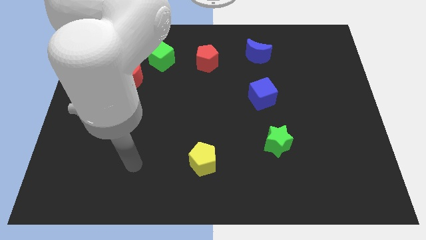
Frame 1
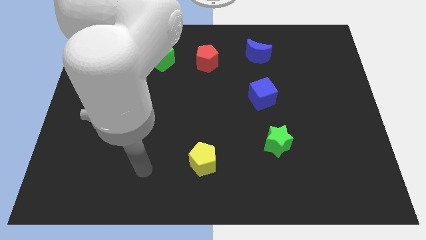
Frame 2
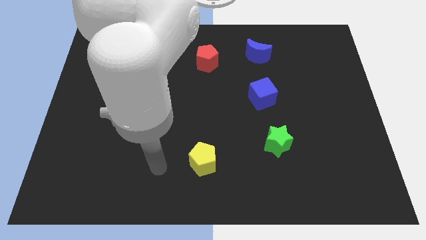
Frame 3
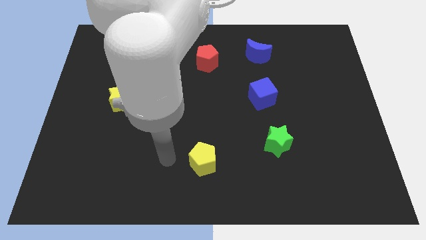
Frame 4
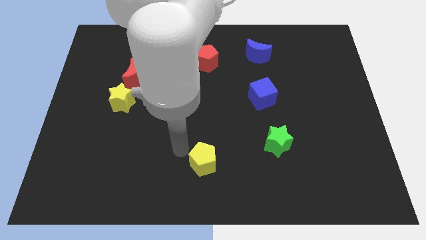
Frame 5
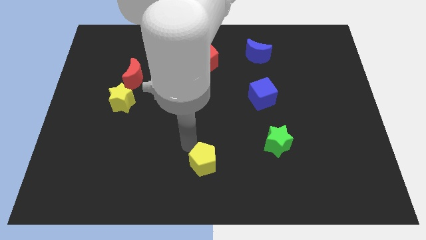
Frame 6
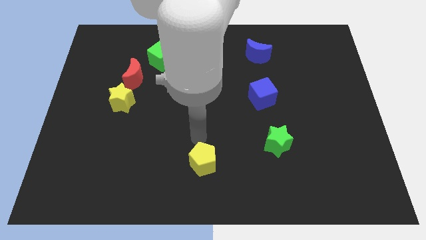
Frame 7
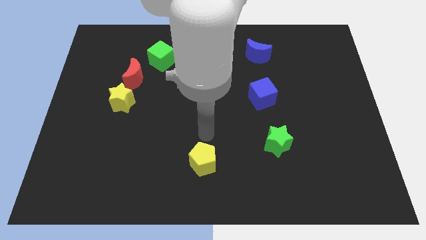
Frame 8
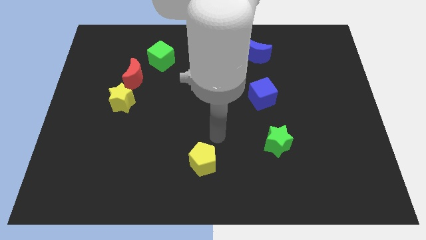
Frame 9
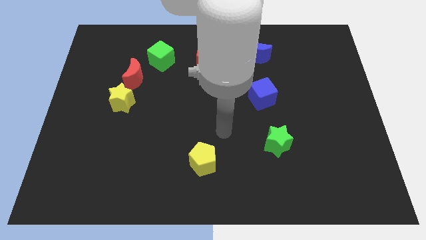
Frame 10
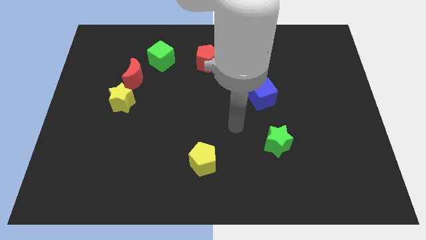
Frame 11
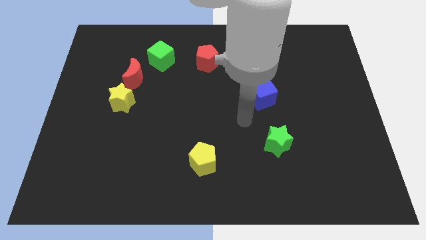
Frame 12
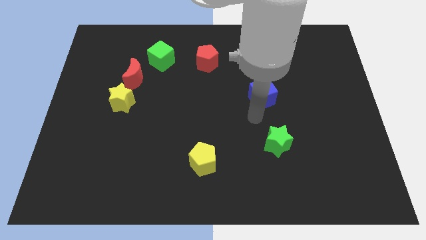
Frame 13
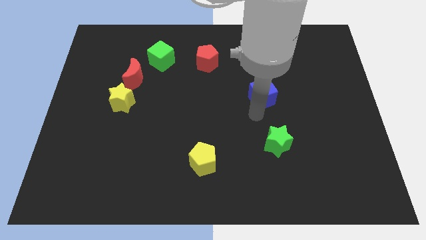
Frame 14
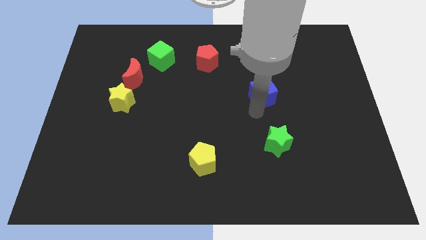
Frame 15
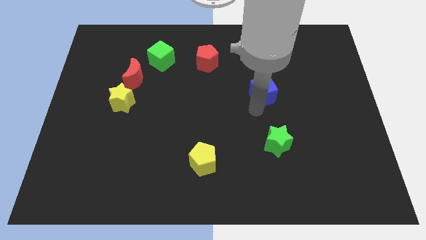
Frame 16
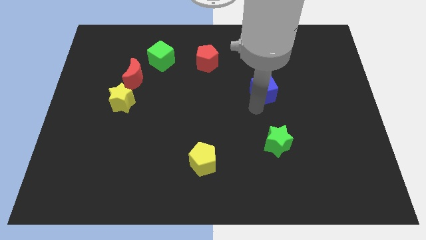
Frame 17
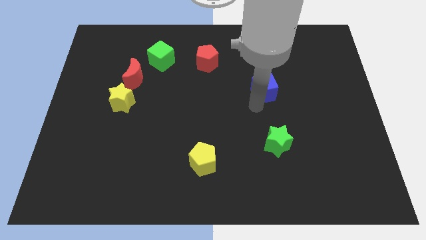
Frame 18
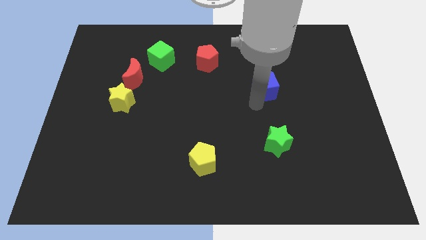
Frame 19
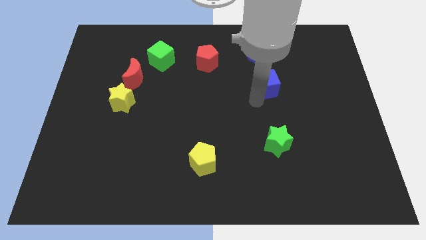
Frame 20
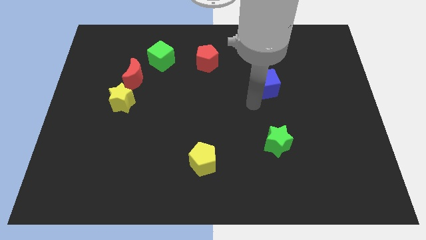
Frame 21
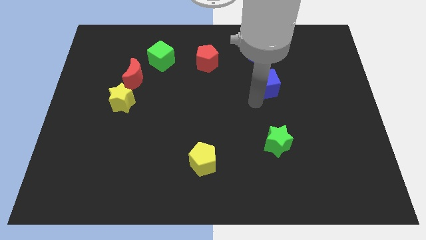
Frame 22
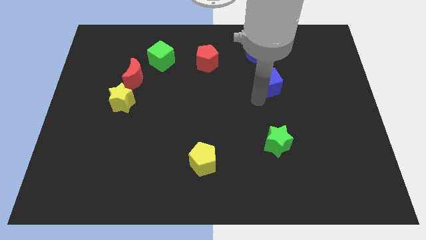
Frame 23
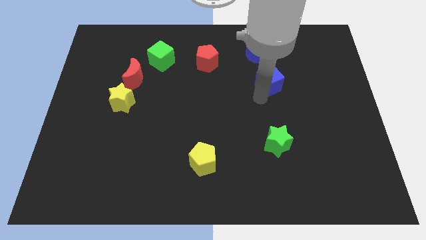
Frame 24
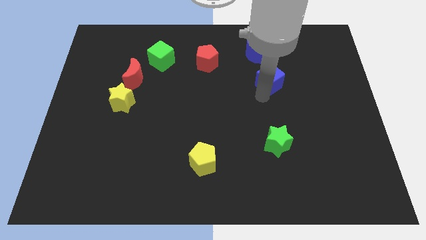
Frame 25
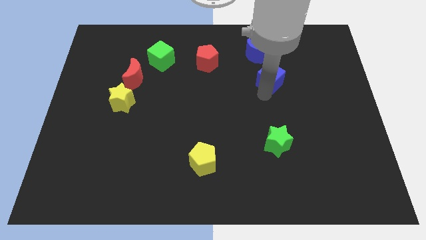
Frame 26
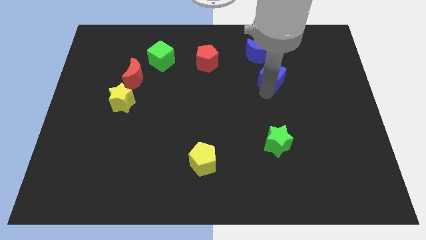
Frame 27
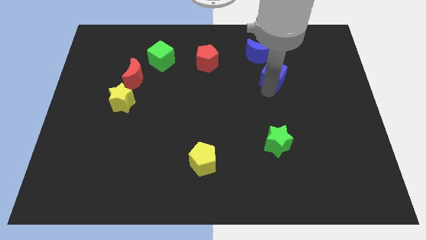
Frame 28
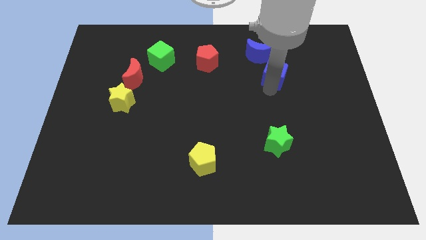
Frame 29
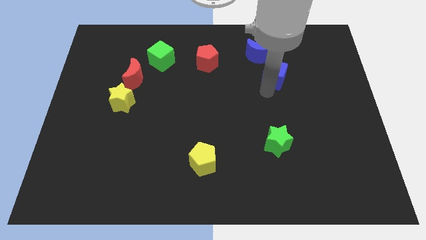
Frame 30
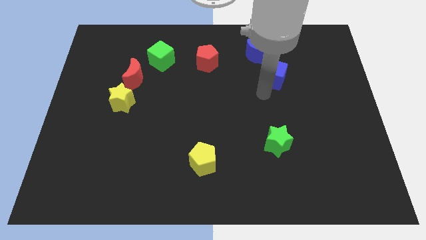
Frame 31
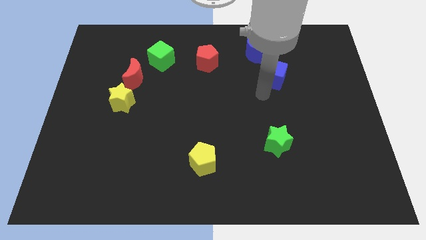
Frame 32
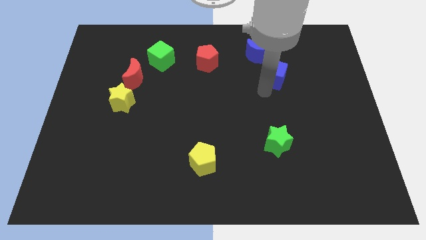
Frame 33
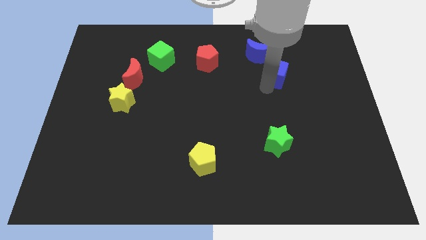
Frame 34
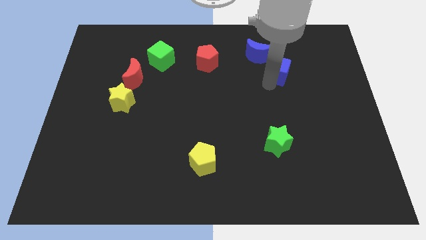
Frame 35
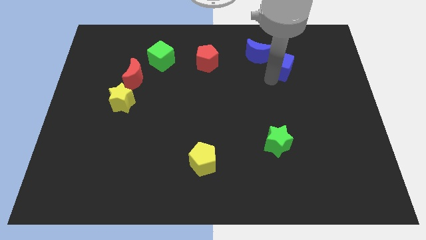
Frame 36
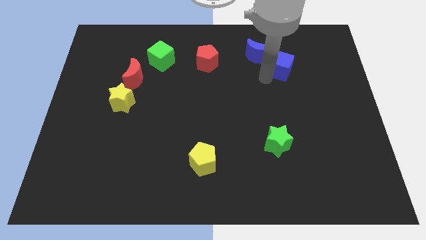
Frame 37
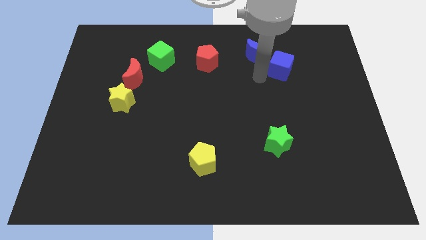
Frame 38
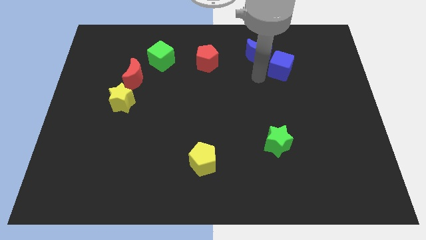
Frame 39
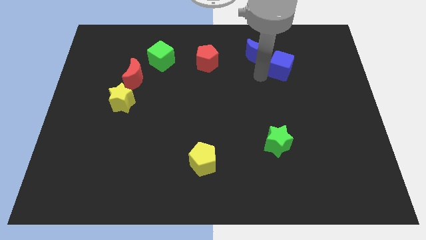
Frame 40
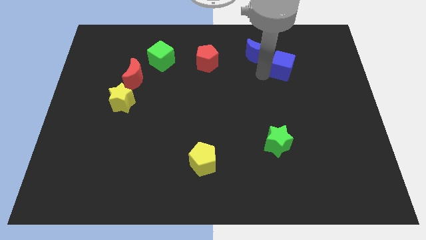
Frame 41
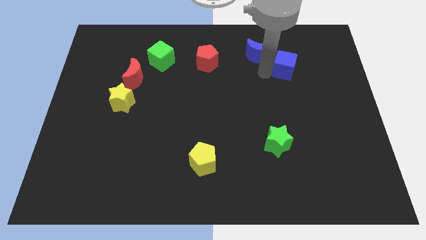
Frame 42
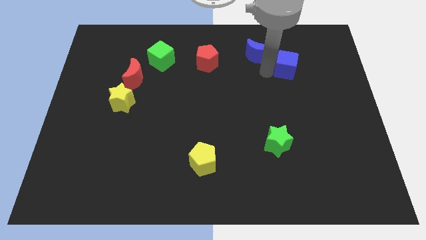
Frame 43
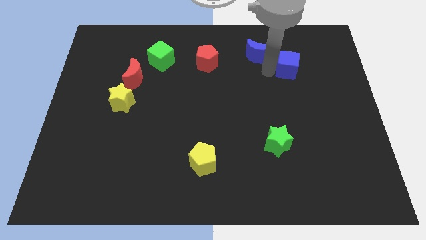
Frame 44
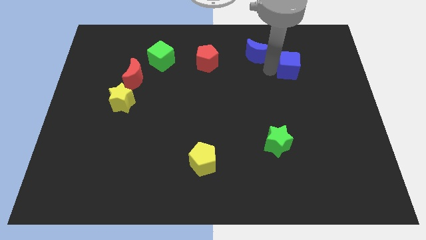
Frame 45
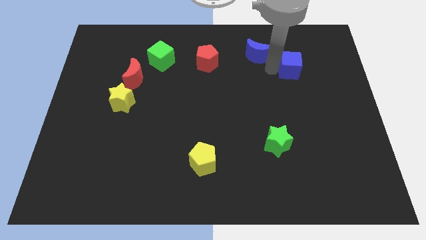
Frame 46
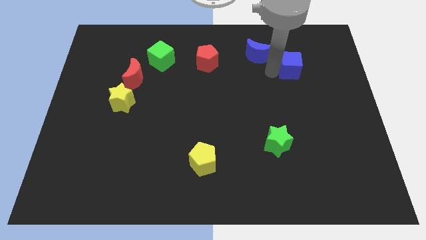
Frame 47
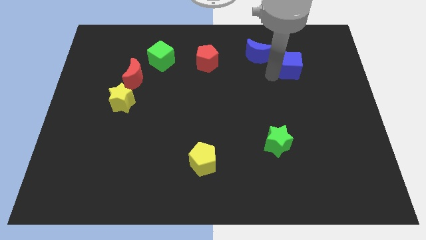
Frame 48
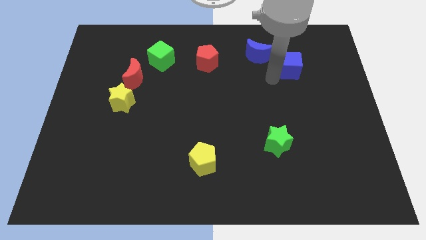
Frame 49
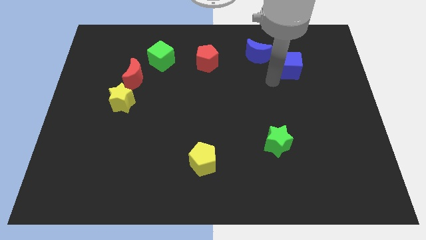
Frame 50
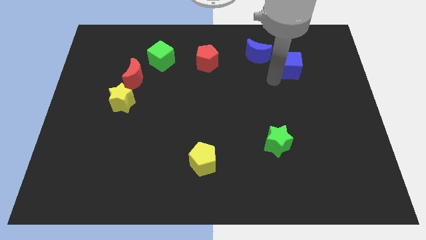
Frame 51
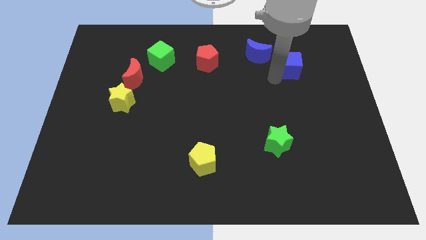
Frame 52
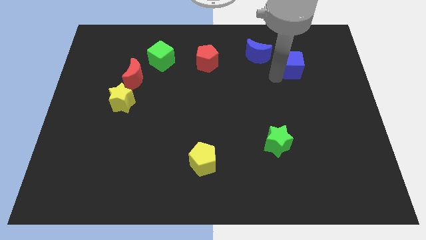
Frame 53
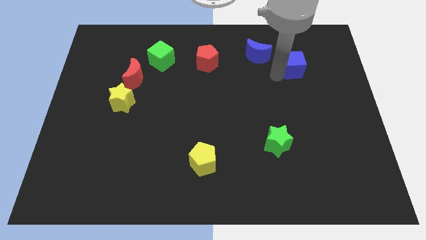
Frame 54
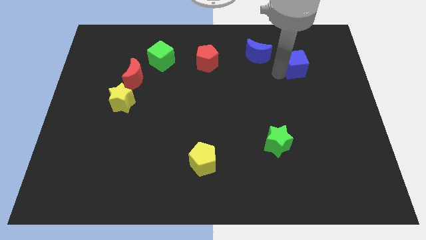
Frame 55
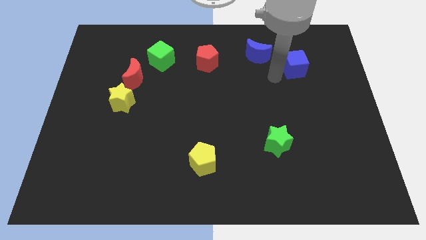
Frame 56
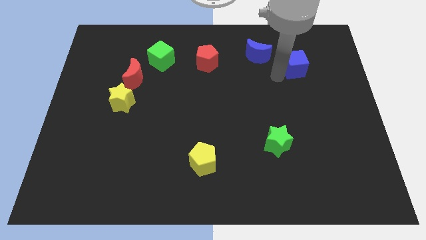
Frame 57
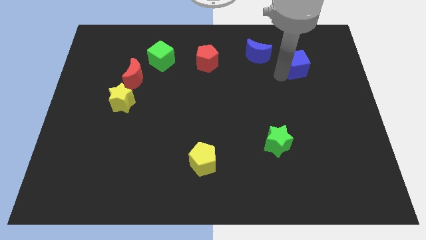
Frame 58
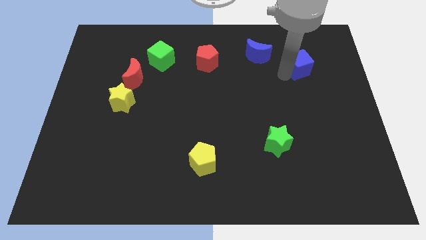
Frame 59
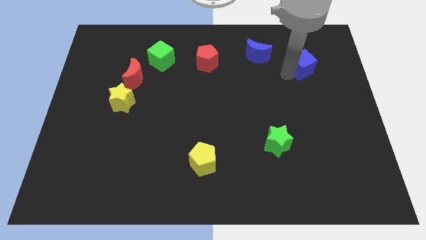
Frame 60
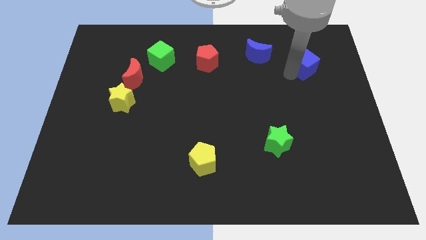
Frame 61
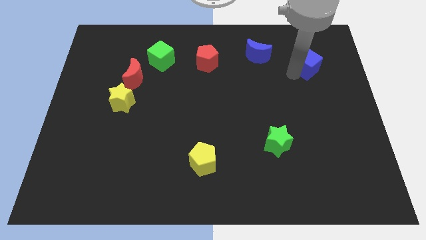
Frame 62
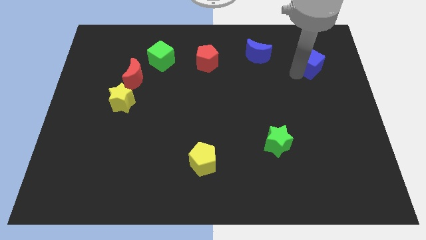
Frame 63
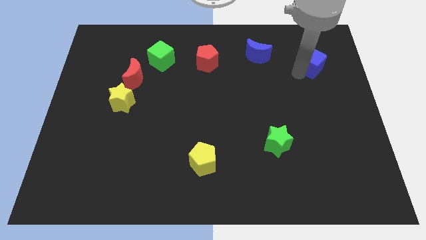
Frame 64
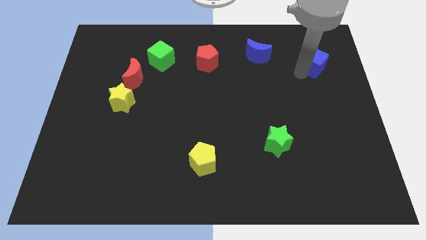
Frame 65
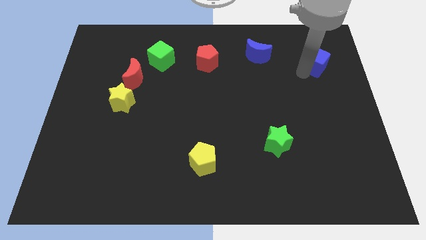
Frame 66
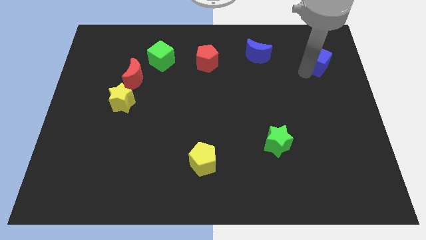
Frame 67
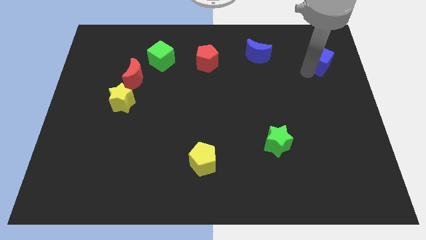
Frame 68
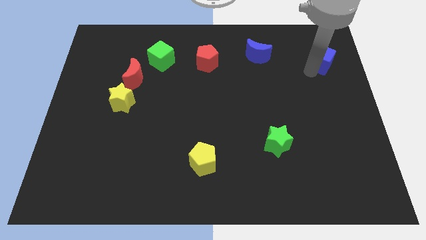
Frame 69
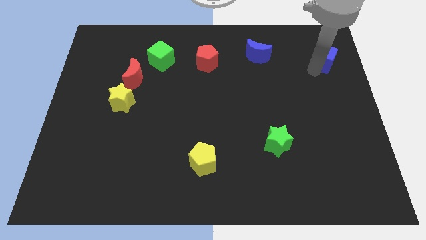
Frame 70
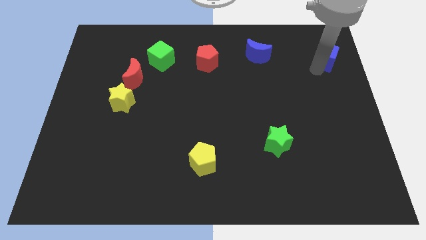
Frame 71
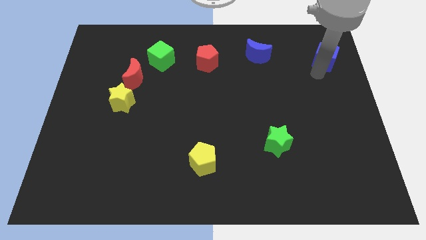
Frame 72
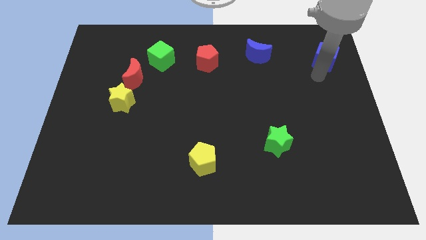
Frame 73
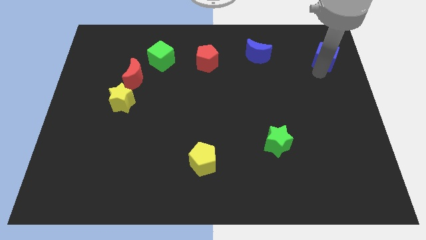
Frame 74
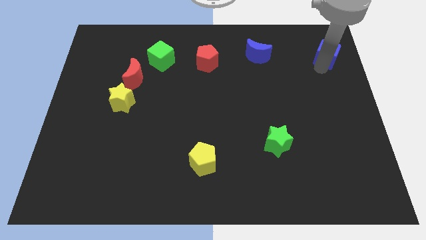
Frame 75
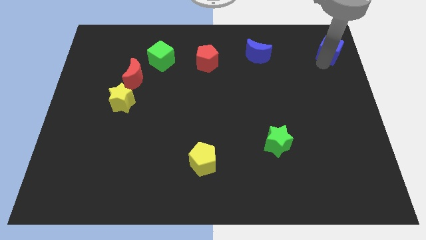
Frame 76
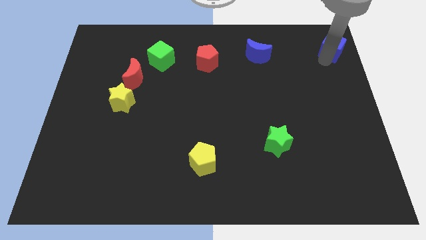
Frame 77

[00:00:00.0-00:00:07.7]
push the blue cube to the top right corner
